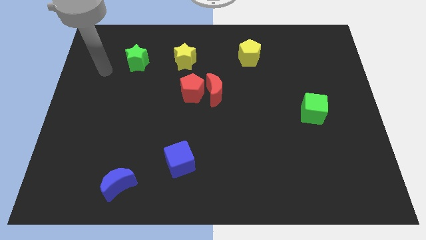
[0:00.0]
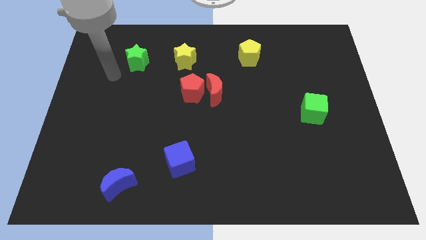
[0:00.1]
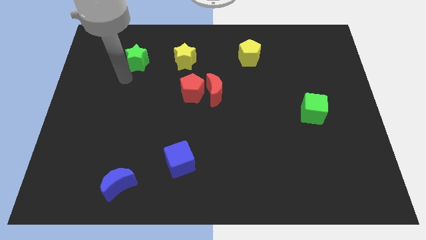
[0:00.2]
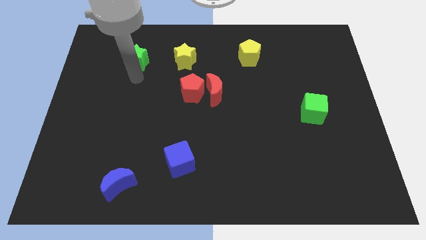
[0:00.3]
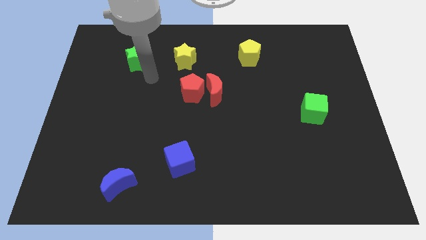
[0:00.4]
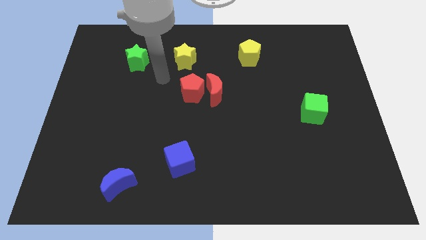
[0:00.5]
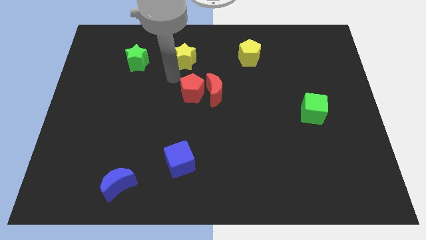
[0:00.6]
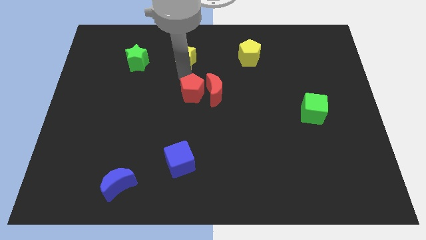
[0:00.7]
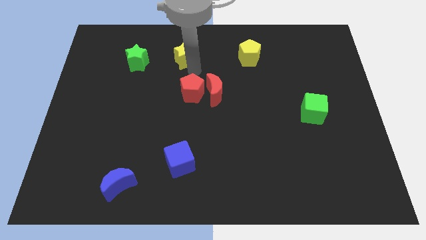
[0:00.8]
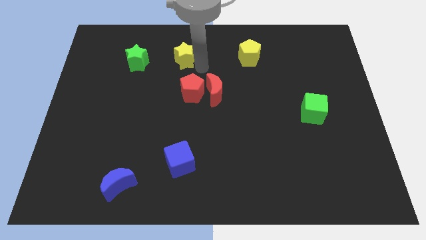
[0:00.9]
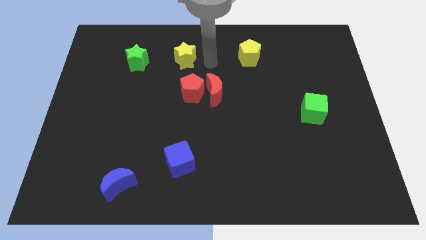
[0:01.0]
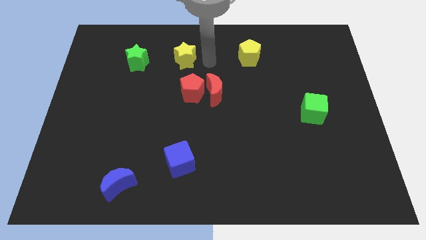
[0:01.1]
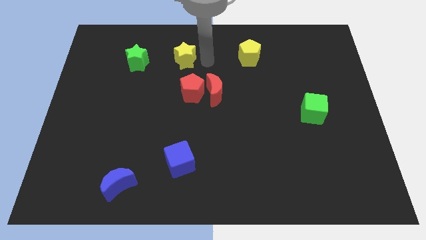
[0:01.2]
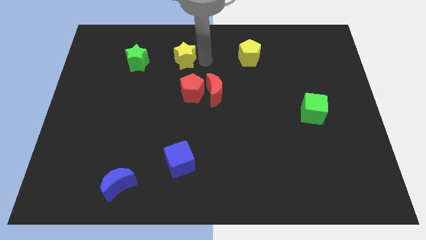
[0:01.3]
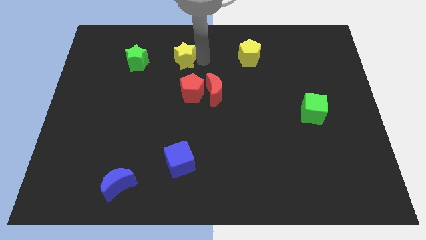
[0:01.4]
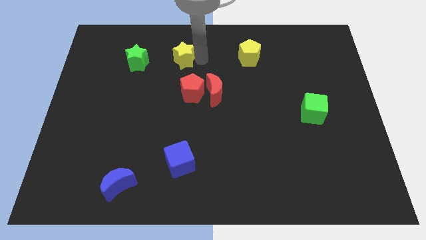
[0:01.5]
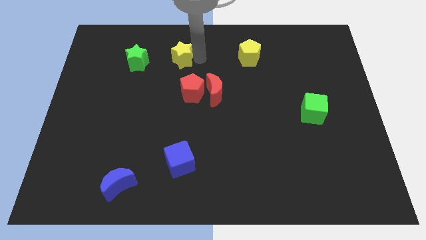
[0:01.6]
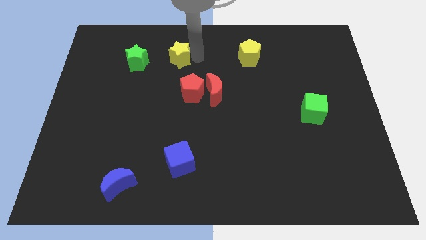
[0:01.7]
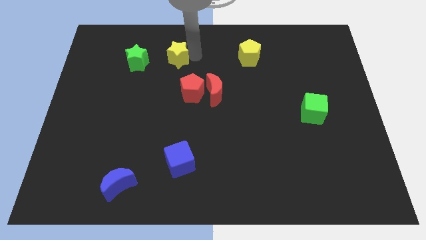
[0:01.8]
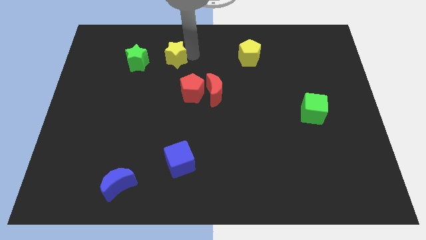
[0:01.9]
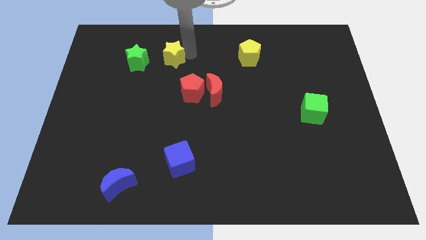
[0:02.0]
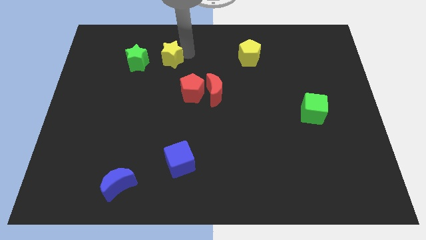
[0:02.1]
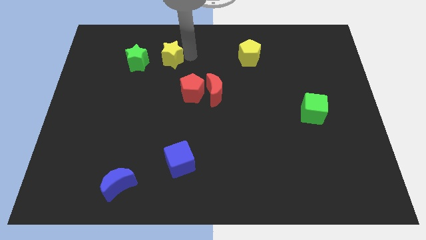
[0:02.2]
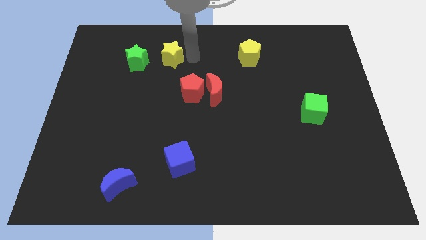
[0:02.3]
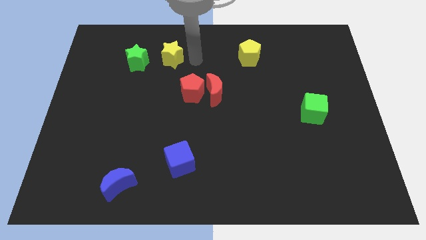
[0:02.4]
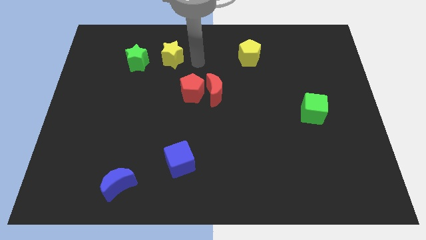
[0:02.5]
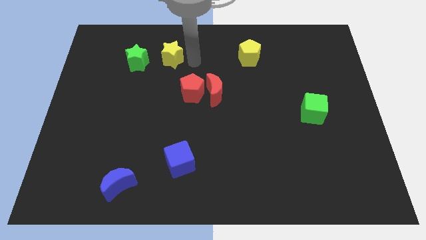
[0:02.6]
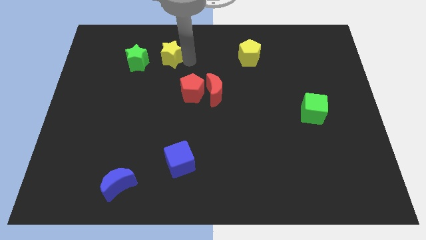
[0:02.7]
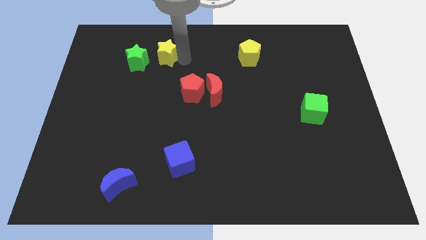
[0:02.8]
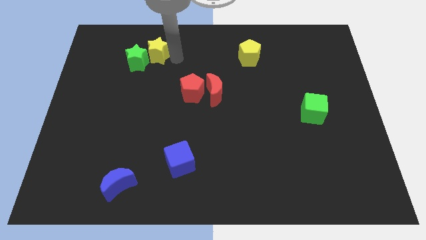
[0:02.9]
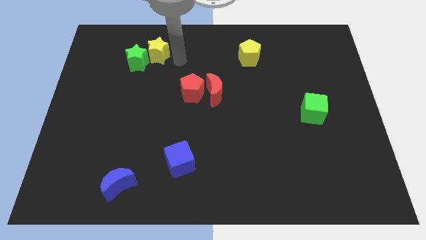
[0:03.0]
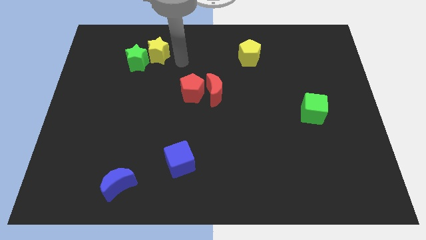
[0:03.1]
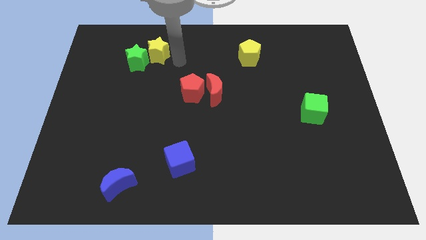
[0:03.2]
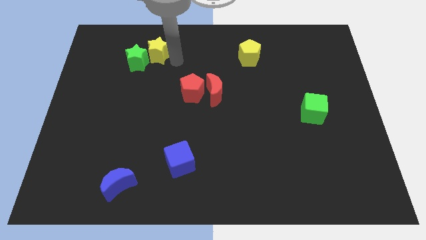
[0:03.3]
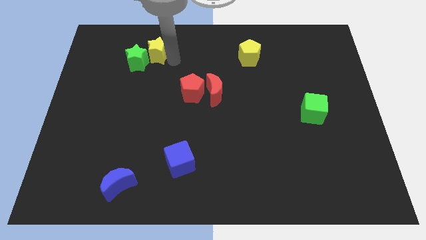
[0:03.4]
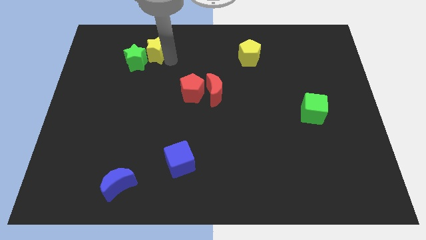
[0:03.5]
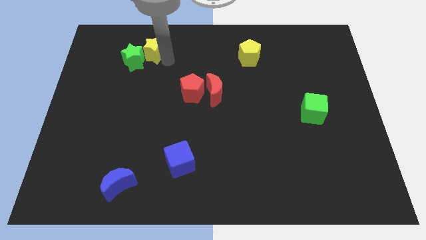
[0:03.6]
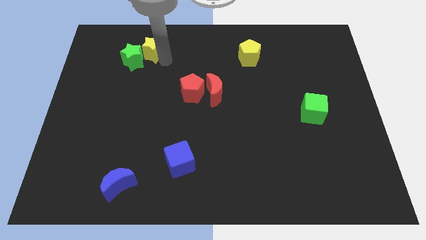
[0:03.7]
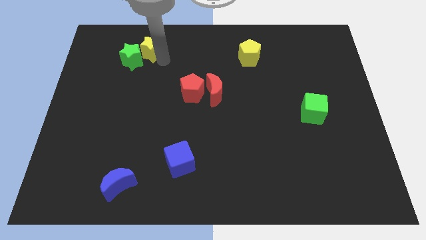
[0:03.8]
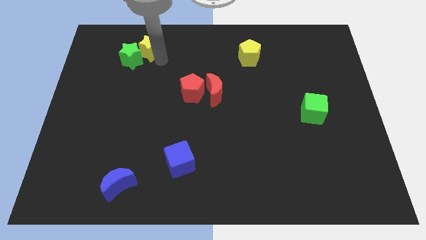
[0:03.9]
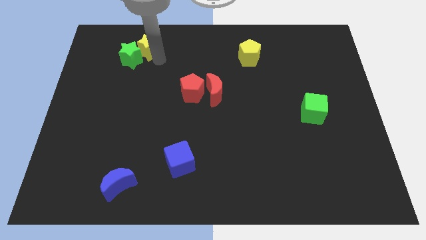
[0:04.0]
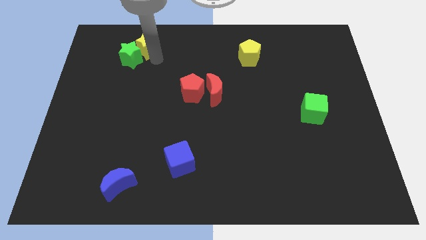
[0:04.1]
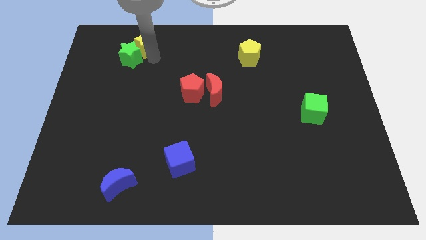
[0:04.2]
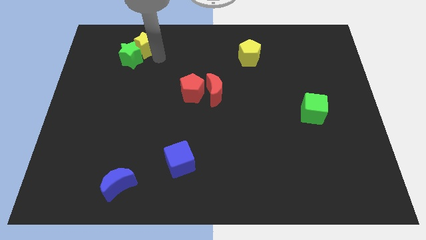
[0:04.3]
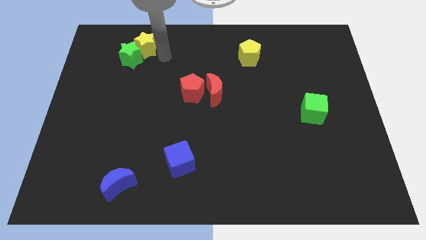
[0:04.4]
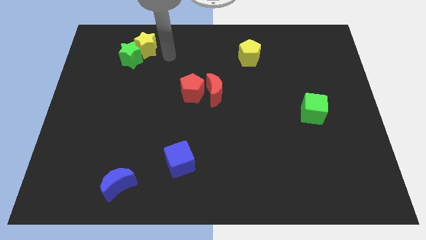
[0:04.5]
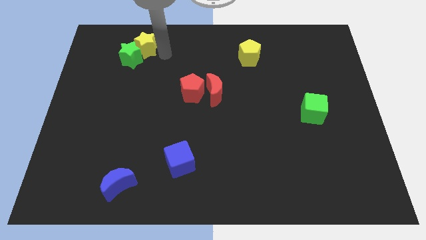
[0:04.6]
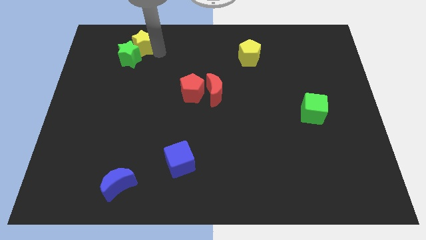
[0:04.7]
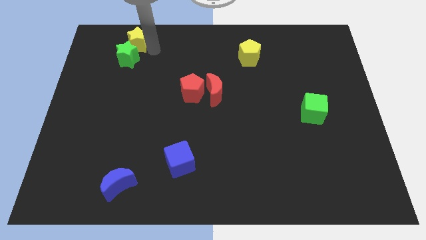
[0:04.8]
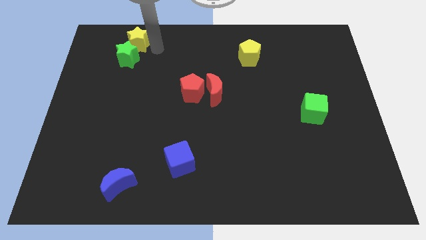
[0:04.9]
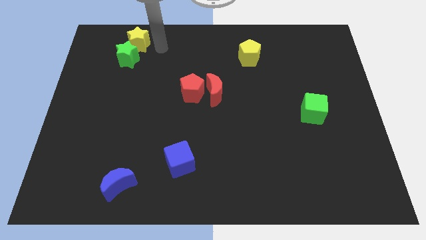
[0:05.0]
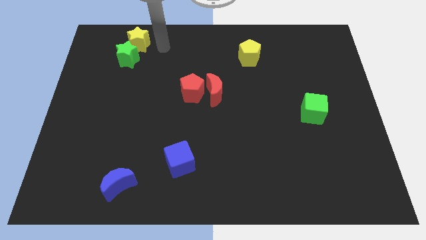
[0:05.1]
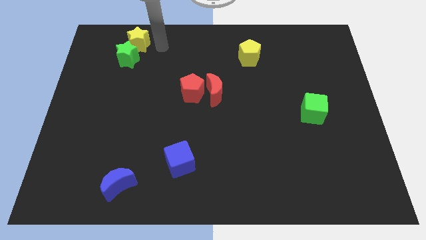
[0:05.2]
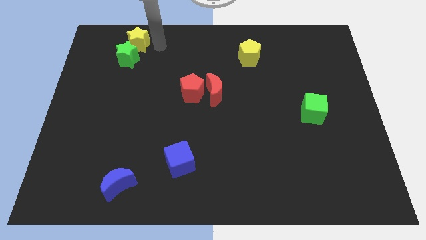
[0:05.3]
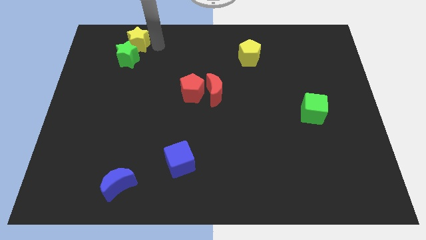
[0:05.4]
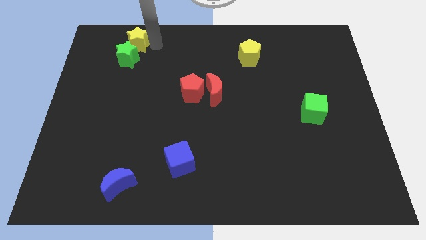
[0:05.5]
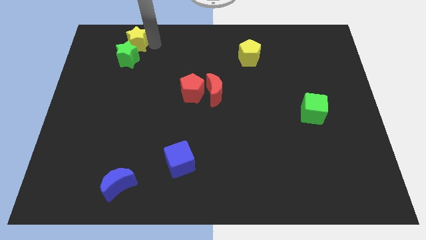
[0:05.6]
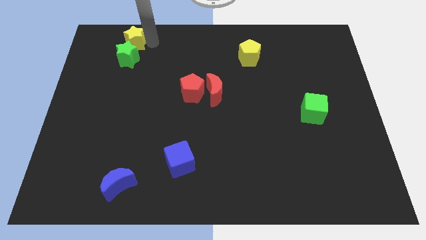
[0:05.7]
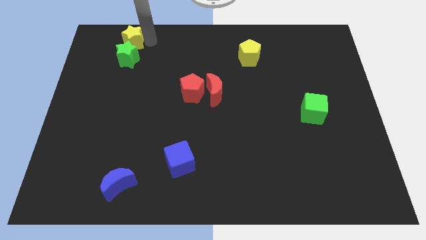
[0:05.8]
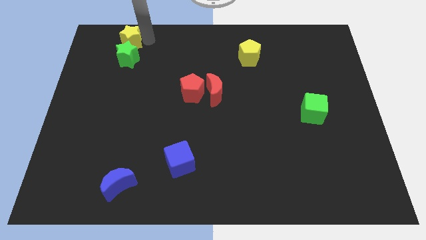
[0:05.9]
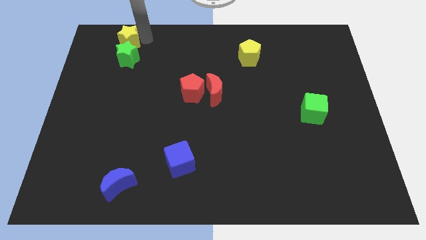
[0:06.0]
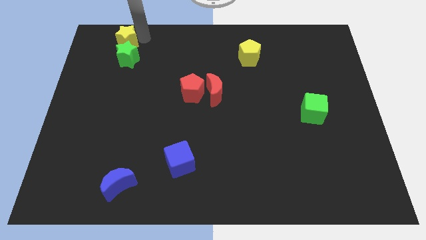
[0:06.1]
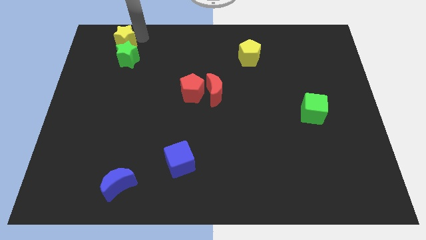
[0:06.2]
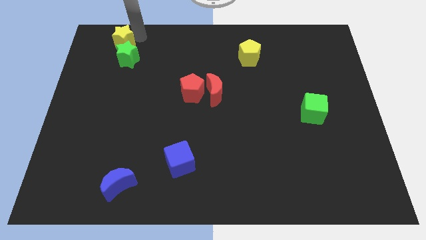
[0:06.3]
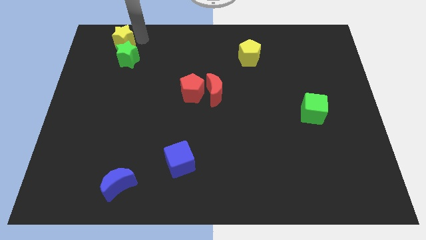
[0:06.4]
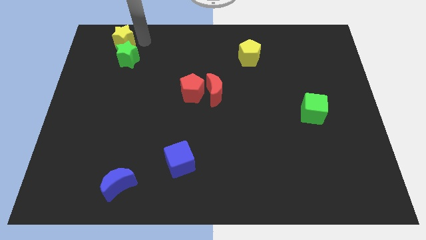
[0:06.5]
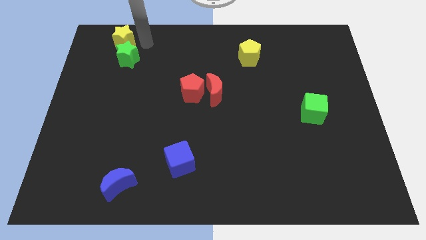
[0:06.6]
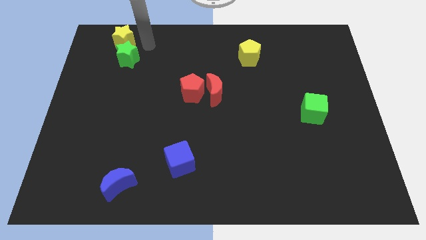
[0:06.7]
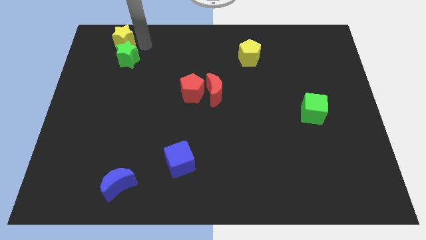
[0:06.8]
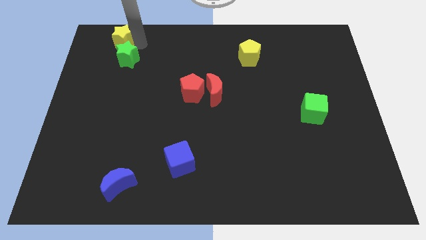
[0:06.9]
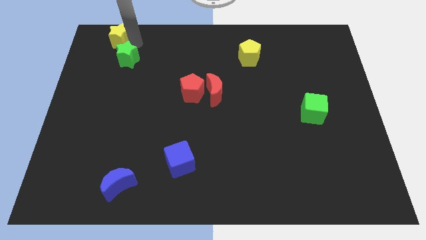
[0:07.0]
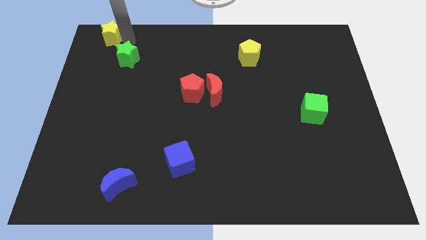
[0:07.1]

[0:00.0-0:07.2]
push the yellow star to the upper left corner

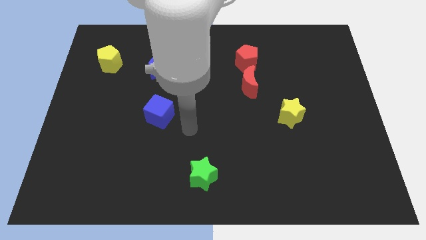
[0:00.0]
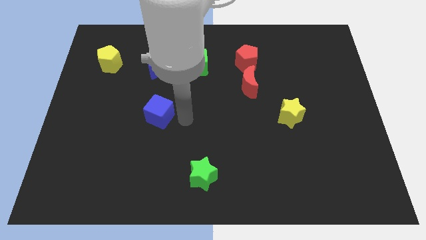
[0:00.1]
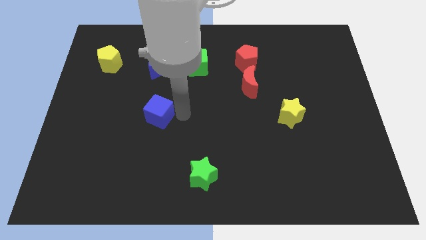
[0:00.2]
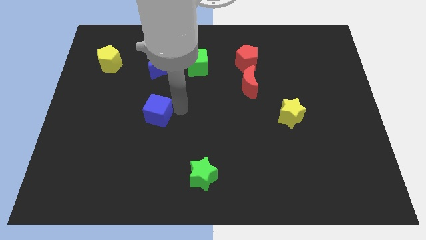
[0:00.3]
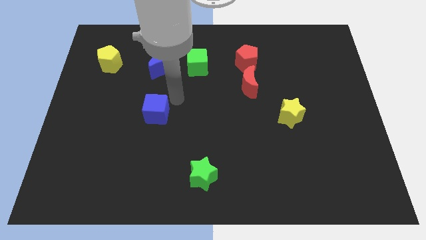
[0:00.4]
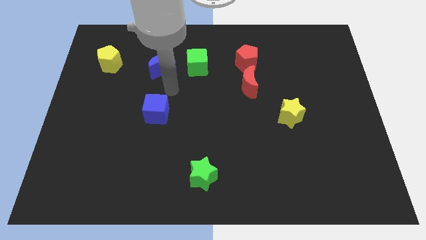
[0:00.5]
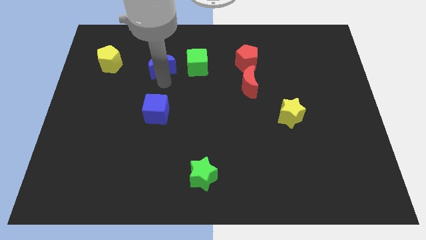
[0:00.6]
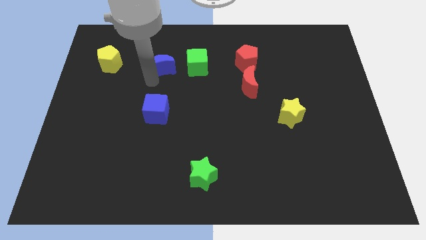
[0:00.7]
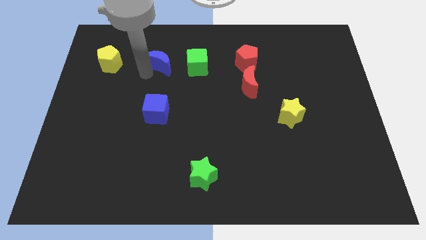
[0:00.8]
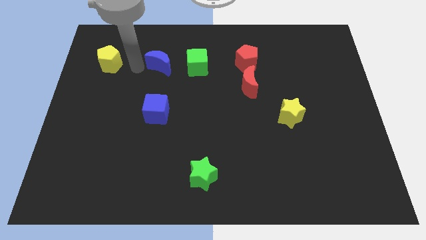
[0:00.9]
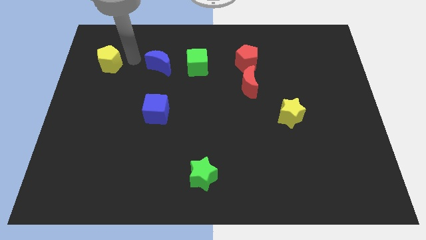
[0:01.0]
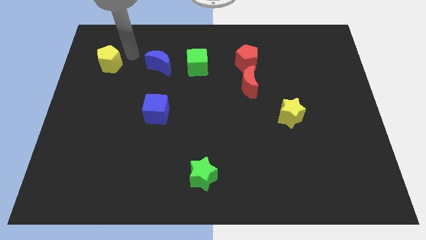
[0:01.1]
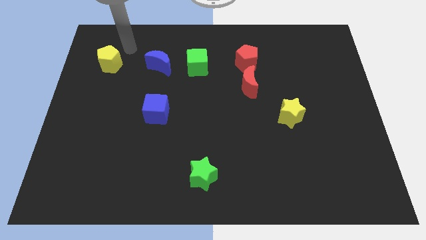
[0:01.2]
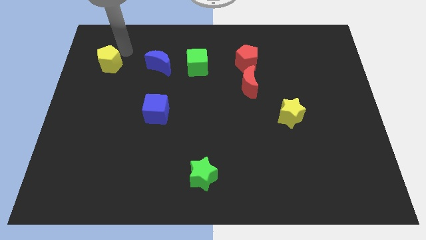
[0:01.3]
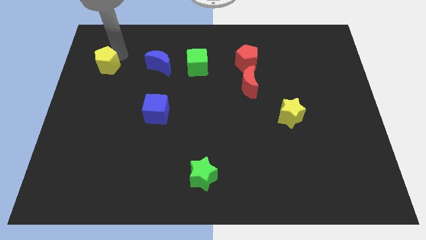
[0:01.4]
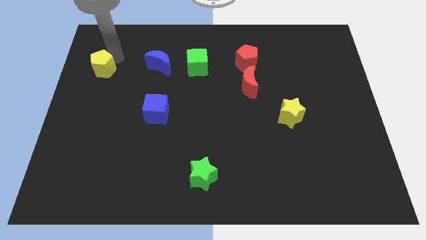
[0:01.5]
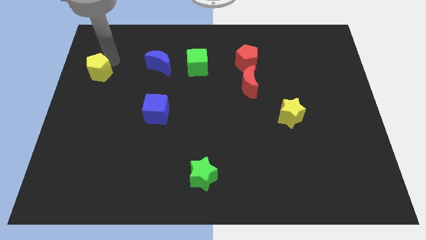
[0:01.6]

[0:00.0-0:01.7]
put the yellow pentagon to the center left
